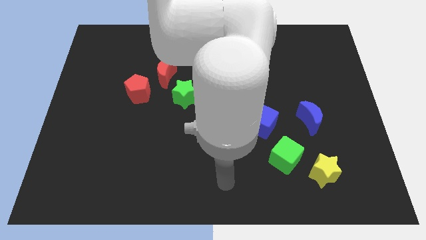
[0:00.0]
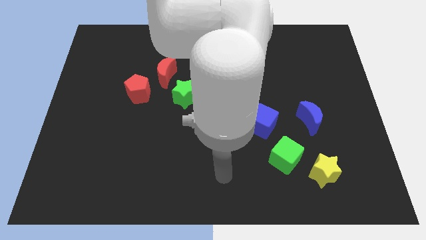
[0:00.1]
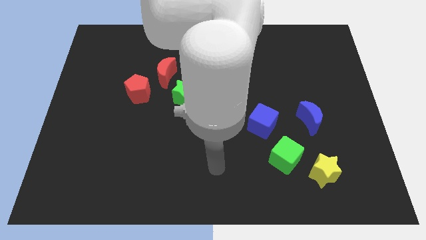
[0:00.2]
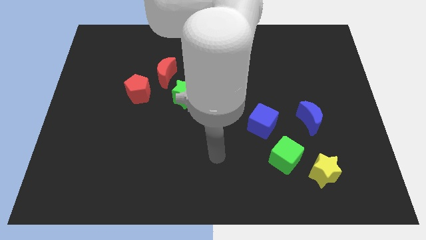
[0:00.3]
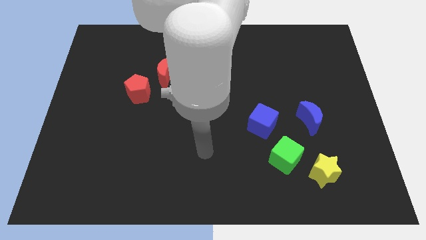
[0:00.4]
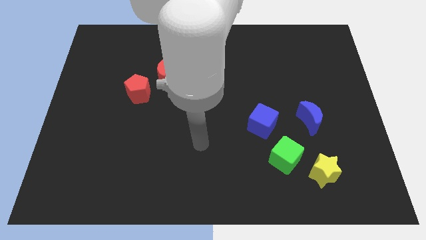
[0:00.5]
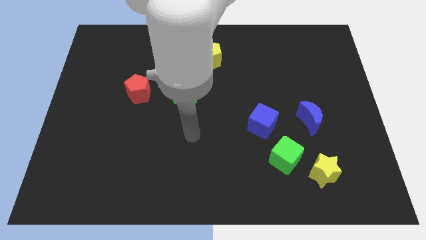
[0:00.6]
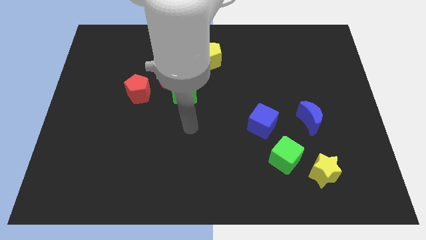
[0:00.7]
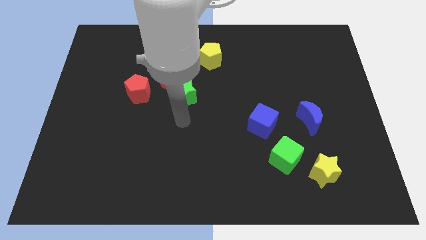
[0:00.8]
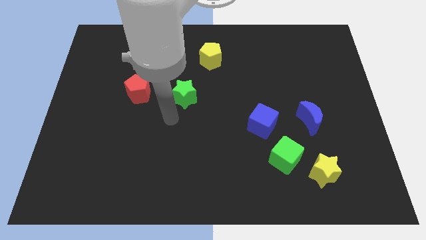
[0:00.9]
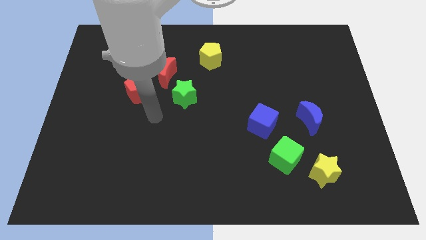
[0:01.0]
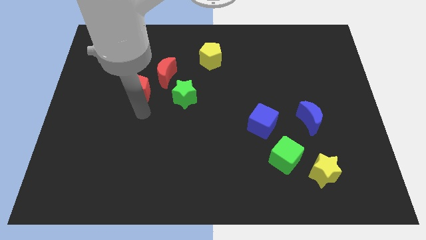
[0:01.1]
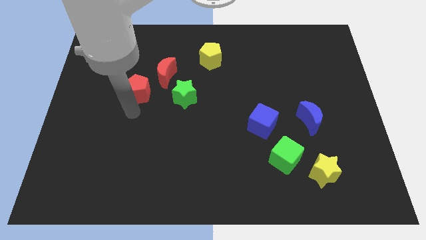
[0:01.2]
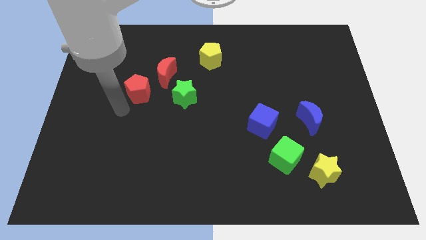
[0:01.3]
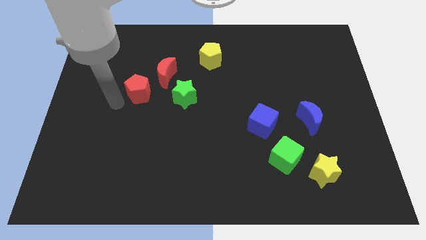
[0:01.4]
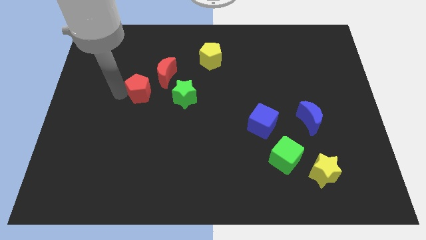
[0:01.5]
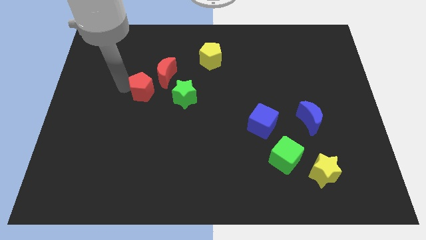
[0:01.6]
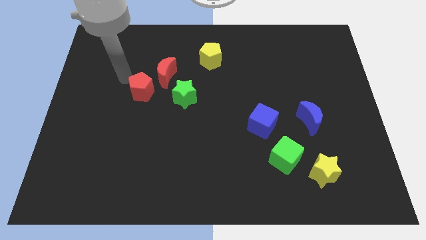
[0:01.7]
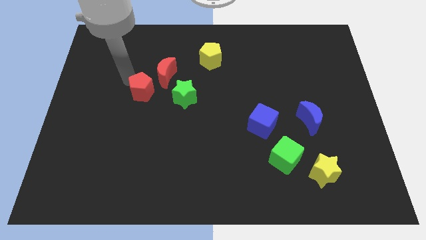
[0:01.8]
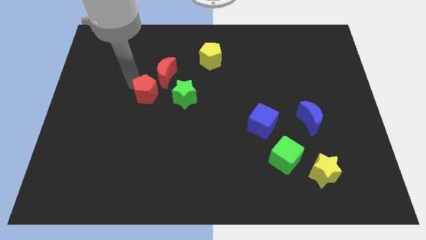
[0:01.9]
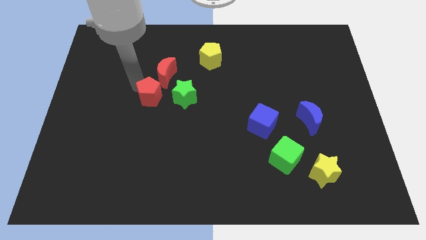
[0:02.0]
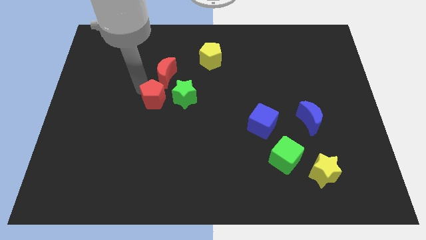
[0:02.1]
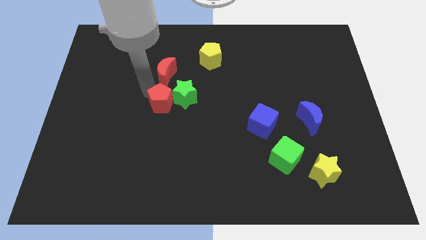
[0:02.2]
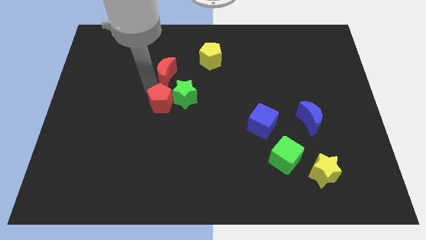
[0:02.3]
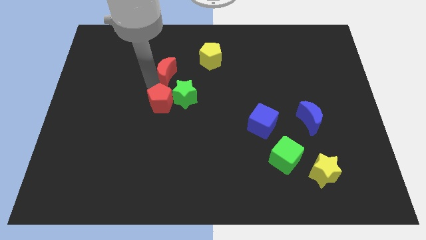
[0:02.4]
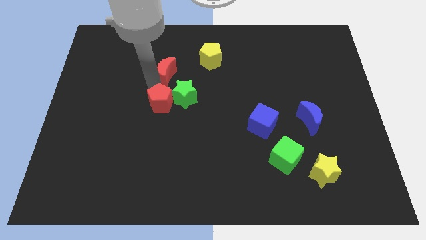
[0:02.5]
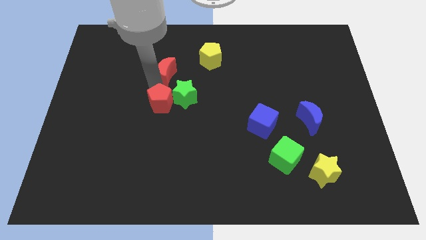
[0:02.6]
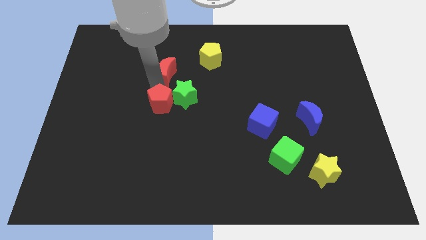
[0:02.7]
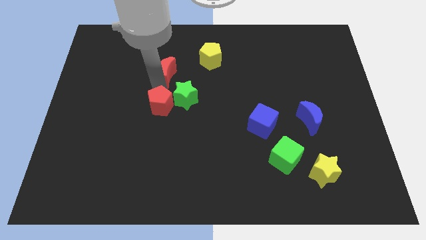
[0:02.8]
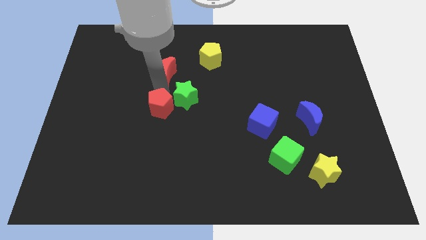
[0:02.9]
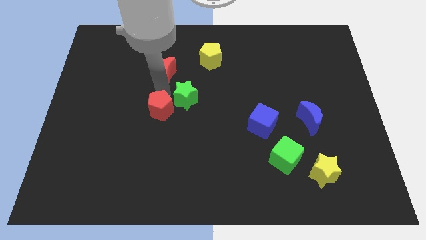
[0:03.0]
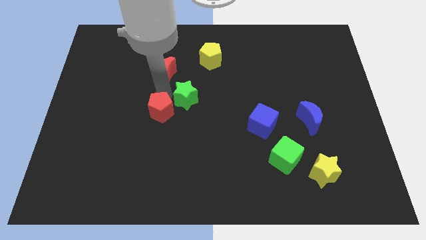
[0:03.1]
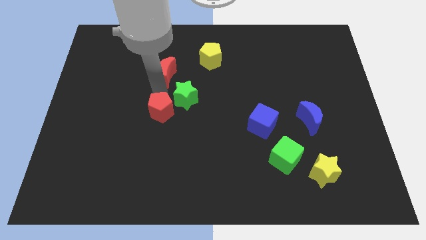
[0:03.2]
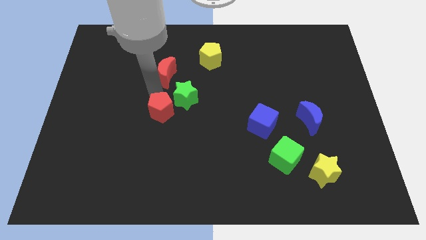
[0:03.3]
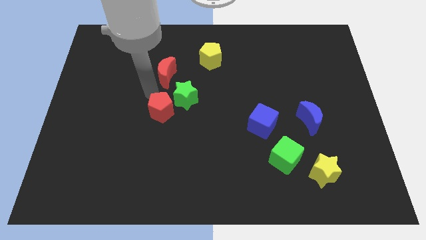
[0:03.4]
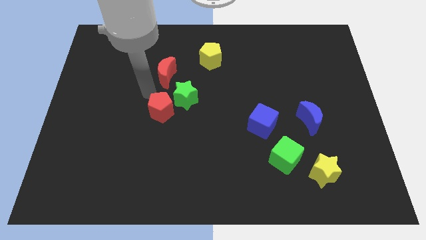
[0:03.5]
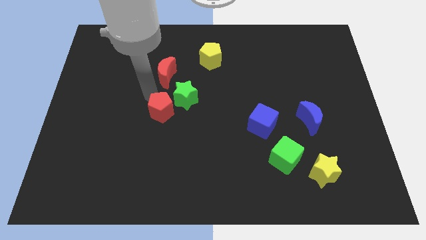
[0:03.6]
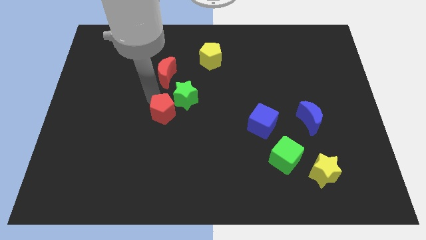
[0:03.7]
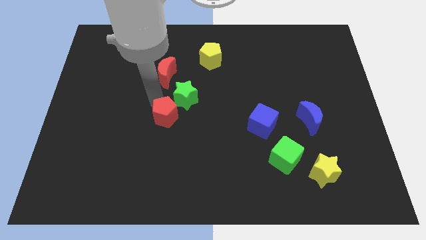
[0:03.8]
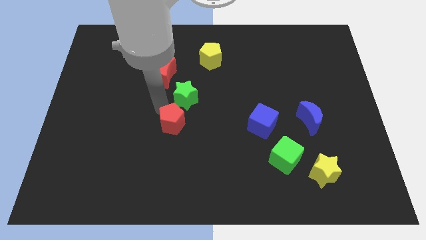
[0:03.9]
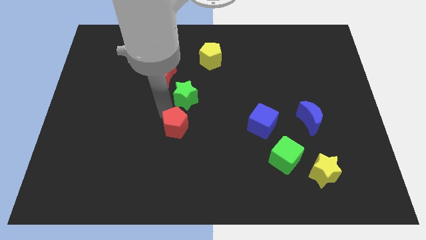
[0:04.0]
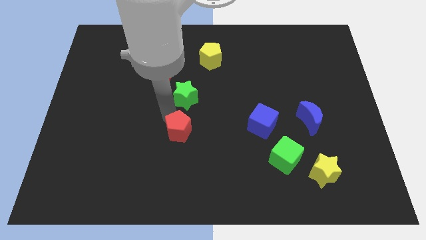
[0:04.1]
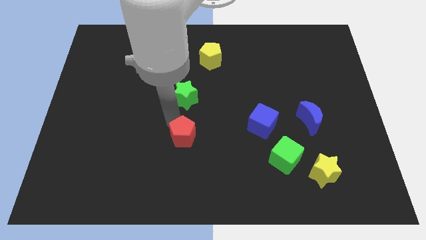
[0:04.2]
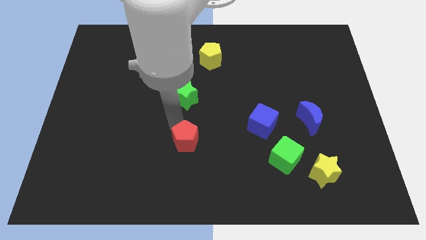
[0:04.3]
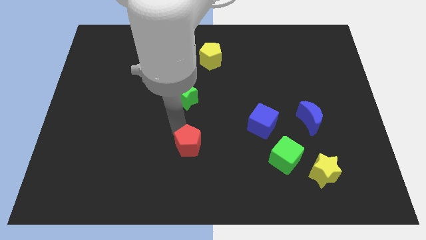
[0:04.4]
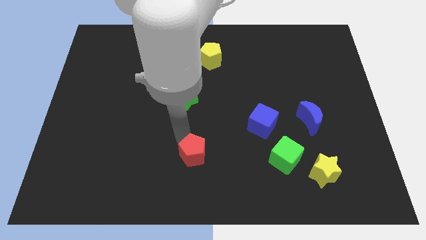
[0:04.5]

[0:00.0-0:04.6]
push the red pentagon down and to the right

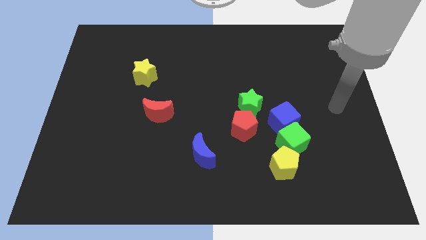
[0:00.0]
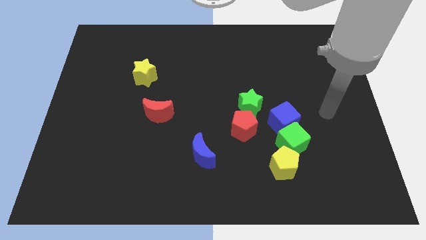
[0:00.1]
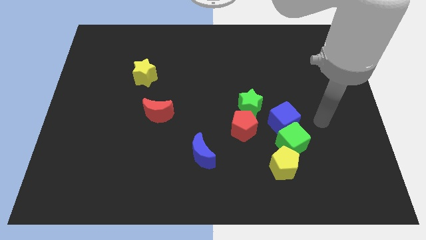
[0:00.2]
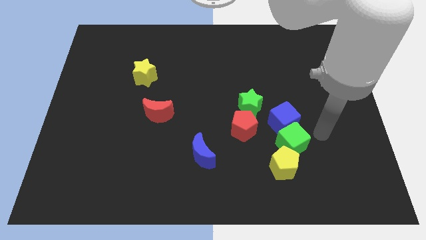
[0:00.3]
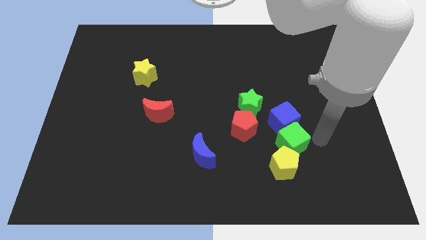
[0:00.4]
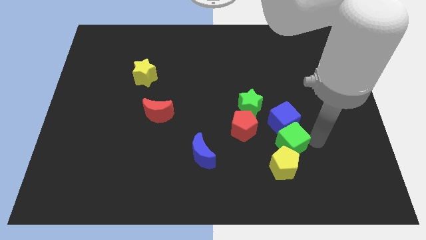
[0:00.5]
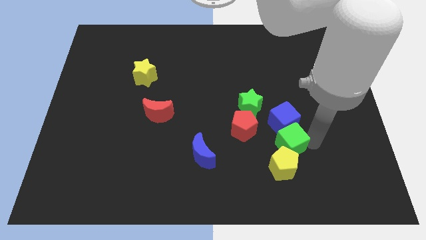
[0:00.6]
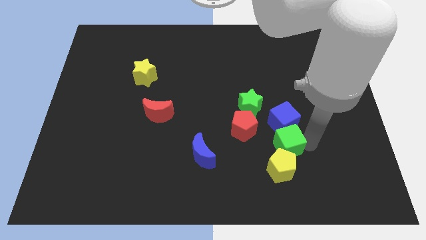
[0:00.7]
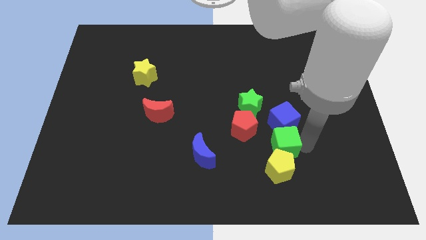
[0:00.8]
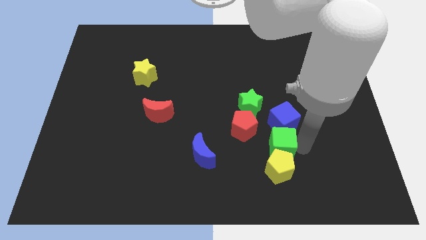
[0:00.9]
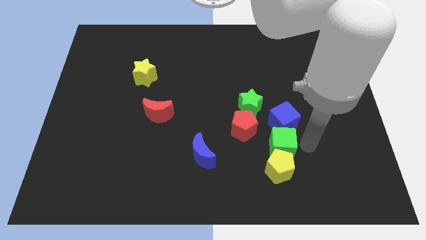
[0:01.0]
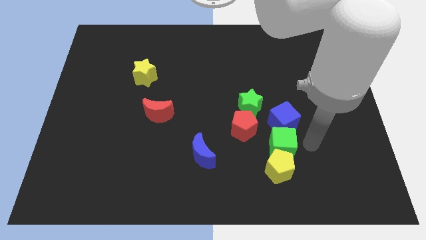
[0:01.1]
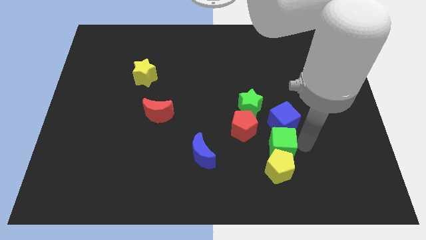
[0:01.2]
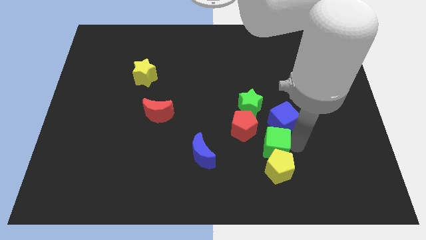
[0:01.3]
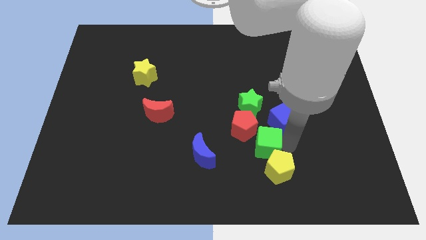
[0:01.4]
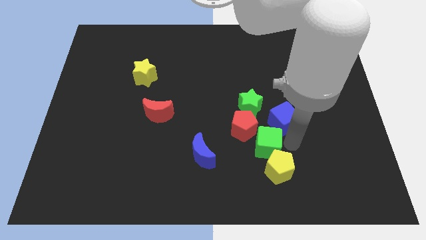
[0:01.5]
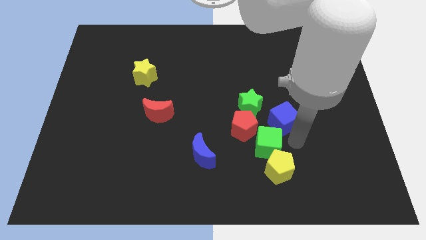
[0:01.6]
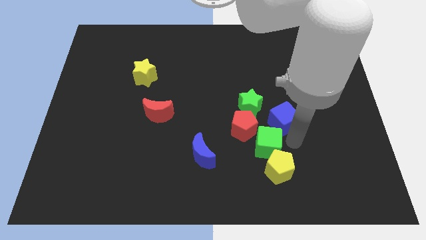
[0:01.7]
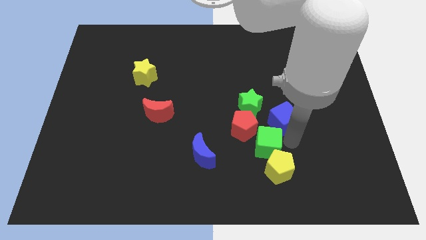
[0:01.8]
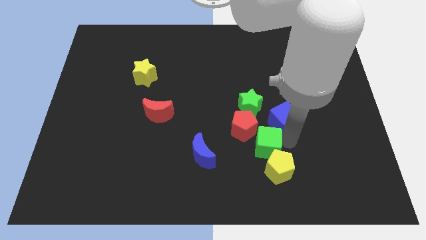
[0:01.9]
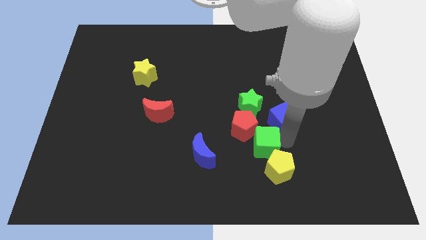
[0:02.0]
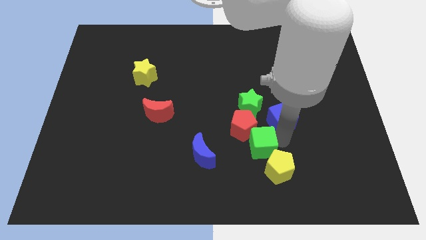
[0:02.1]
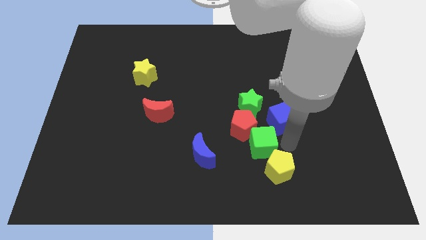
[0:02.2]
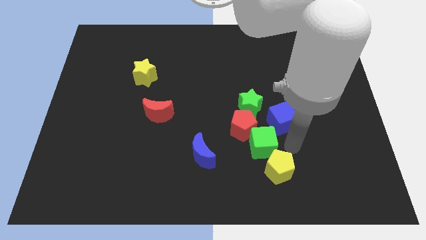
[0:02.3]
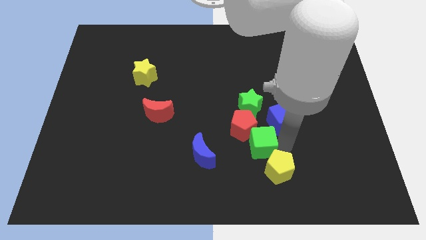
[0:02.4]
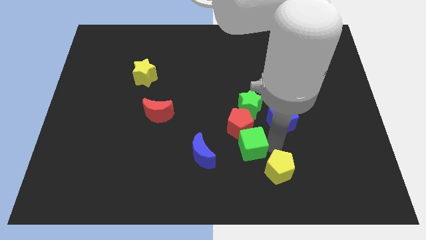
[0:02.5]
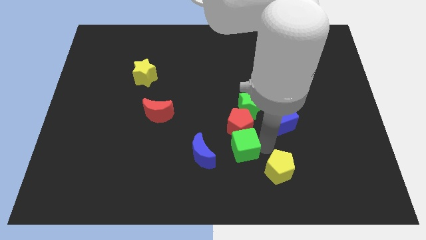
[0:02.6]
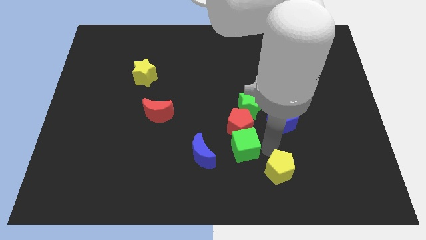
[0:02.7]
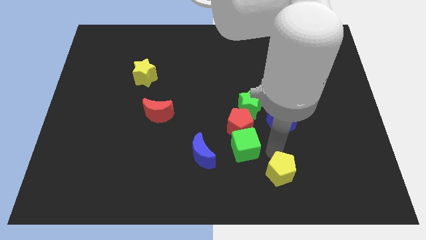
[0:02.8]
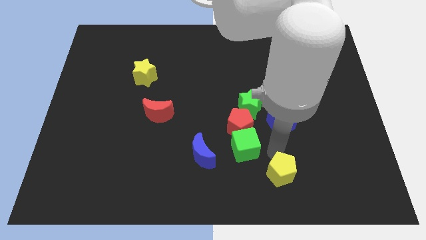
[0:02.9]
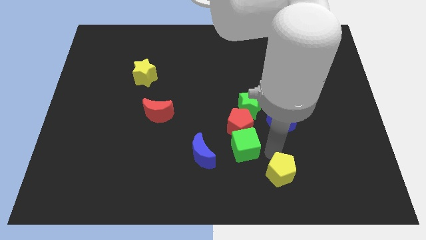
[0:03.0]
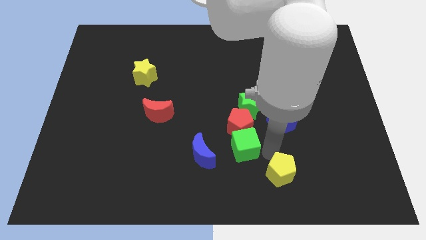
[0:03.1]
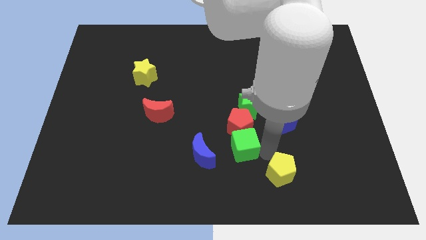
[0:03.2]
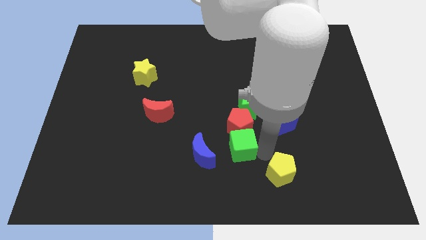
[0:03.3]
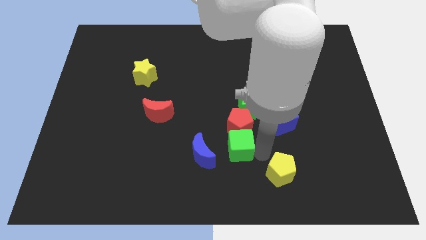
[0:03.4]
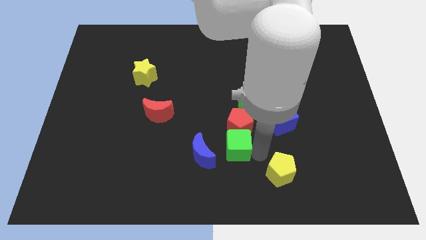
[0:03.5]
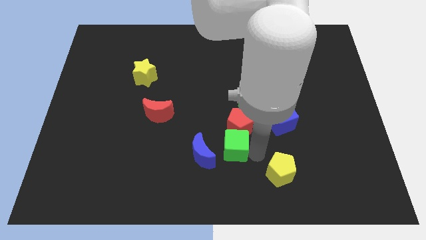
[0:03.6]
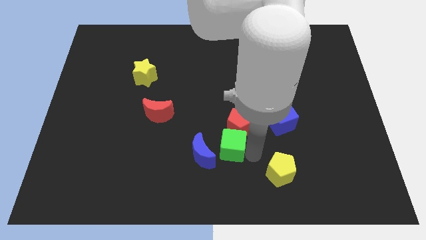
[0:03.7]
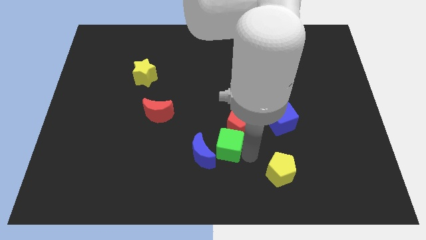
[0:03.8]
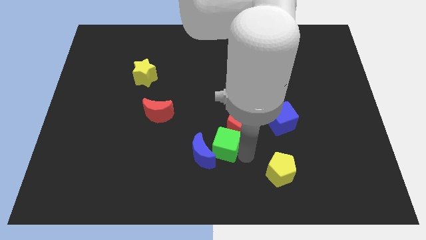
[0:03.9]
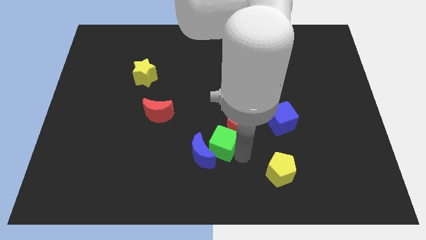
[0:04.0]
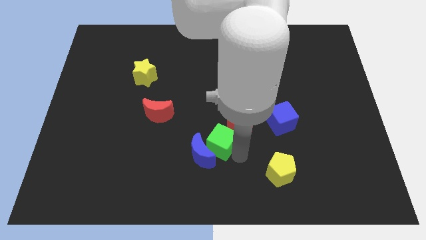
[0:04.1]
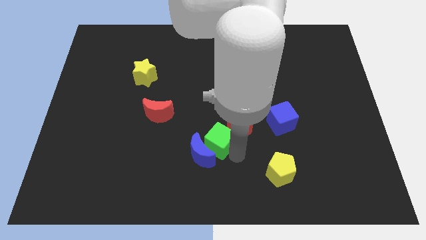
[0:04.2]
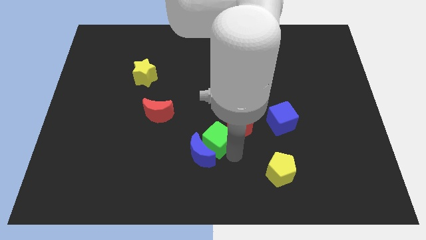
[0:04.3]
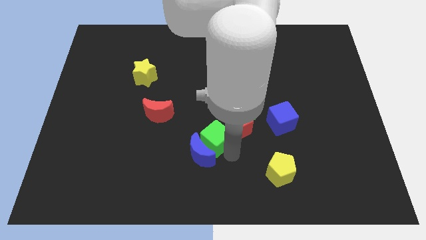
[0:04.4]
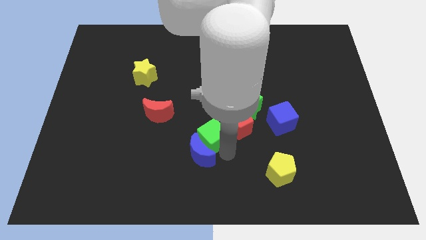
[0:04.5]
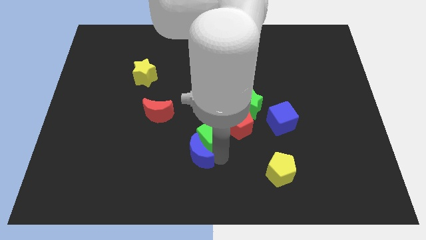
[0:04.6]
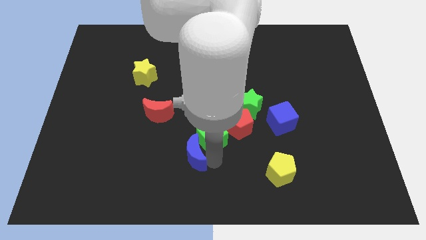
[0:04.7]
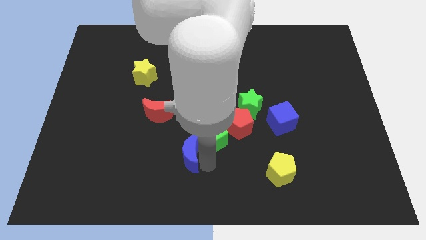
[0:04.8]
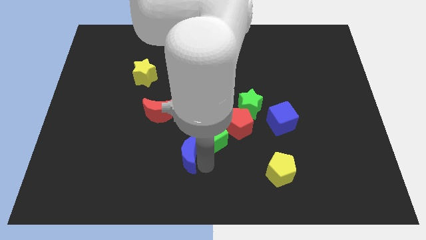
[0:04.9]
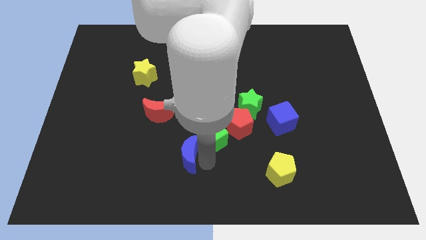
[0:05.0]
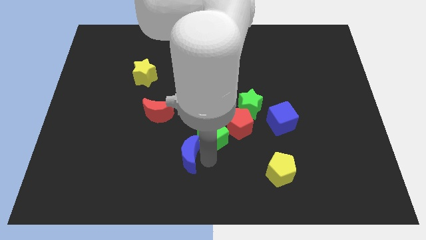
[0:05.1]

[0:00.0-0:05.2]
slightly move the green cube diagonally upwards and to the left
